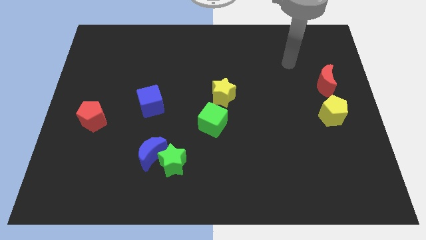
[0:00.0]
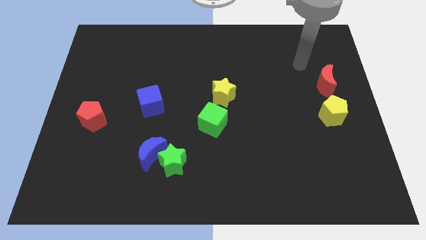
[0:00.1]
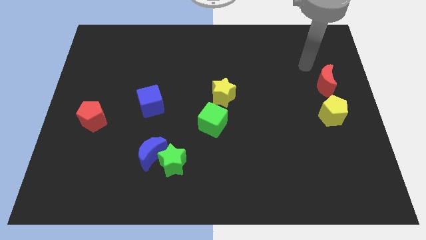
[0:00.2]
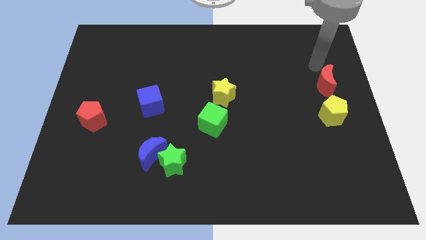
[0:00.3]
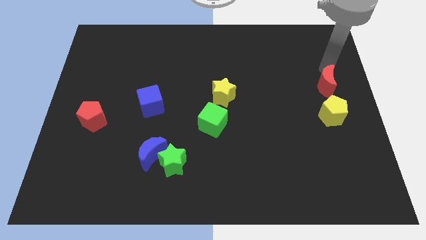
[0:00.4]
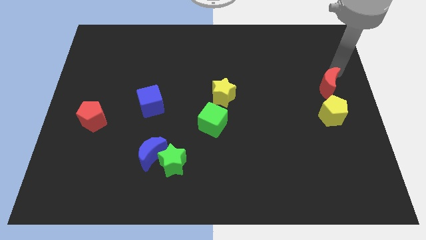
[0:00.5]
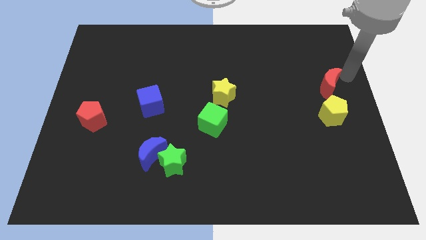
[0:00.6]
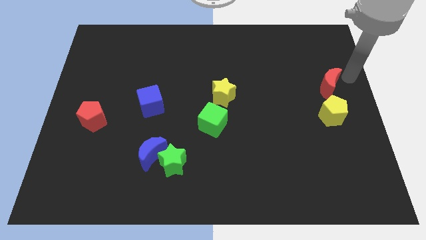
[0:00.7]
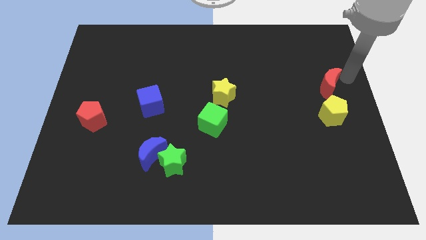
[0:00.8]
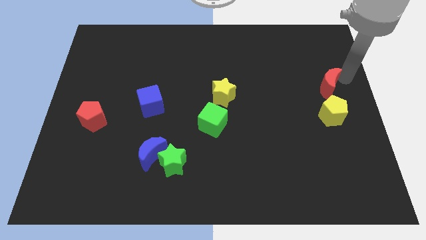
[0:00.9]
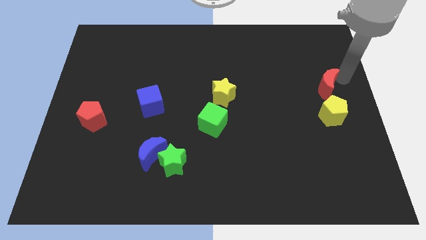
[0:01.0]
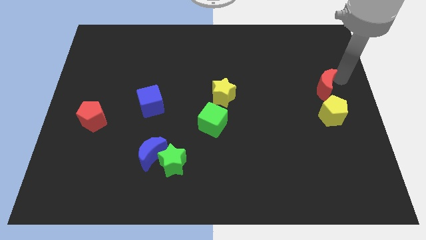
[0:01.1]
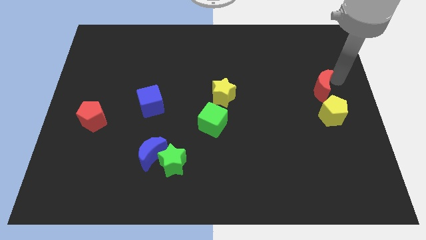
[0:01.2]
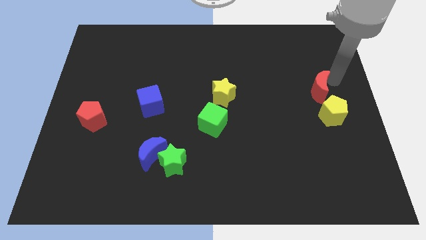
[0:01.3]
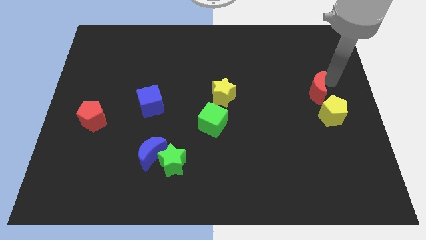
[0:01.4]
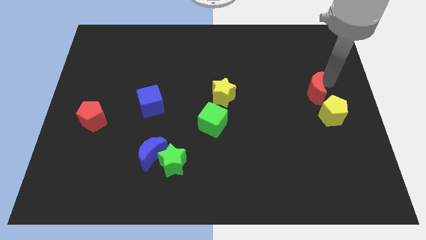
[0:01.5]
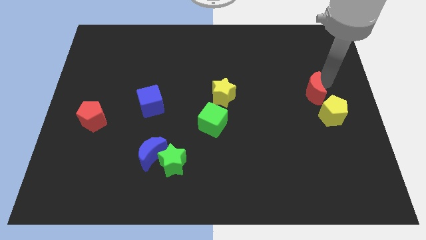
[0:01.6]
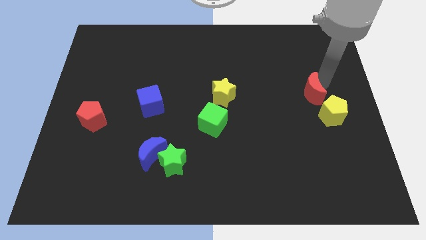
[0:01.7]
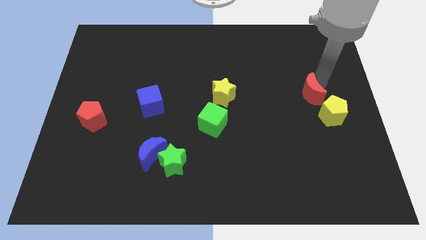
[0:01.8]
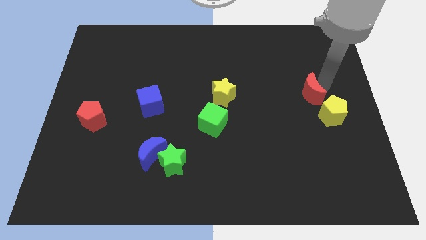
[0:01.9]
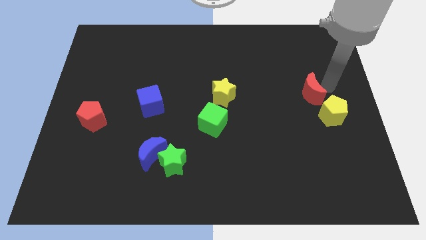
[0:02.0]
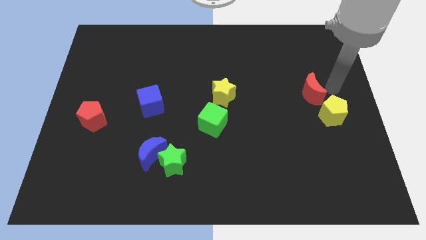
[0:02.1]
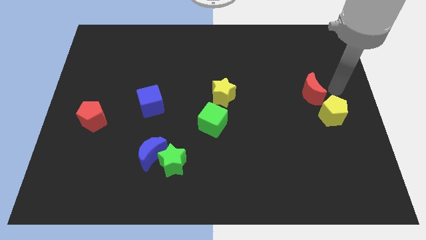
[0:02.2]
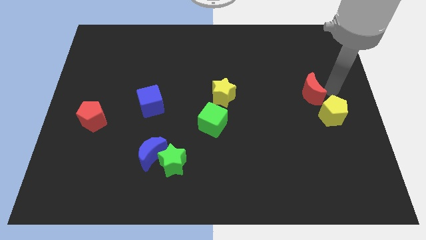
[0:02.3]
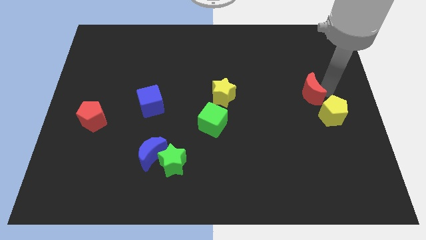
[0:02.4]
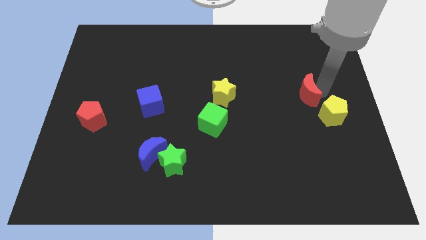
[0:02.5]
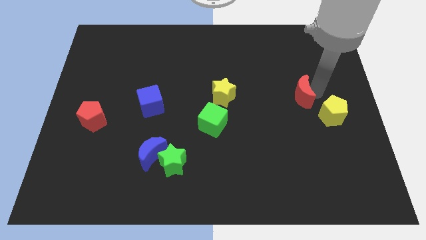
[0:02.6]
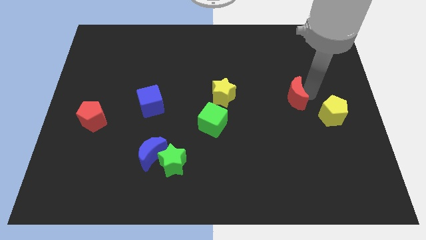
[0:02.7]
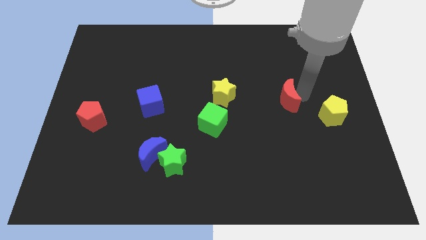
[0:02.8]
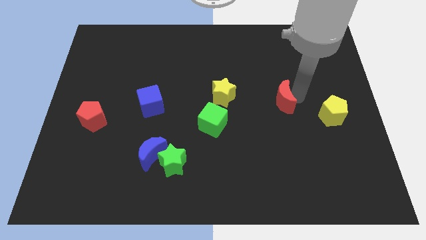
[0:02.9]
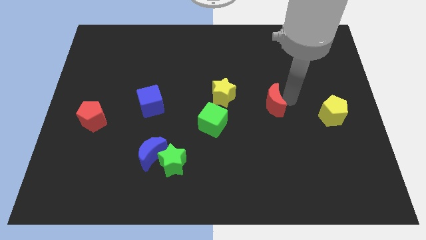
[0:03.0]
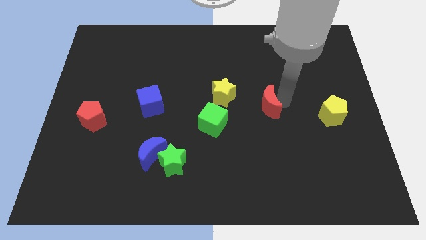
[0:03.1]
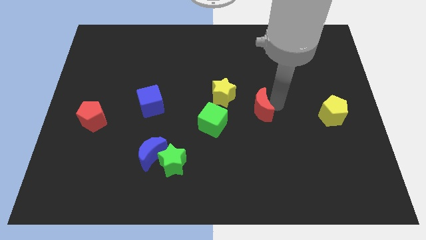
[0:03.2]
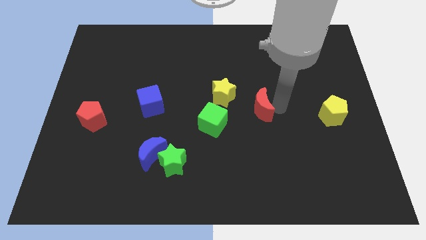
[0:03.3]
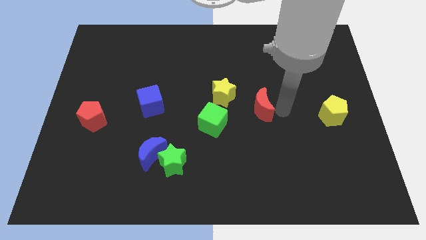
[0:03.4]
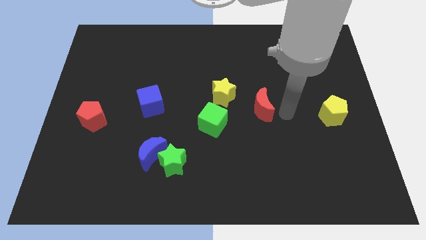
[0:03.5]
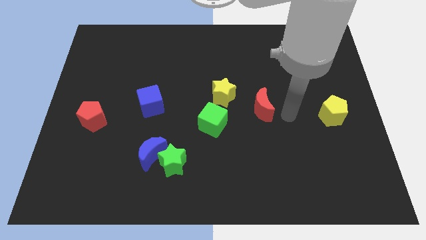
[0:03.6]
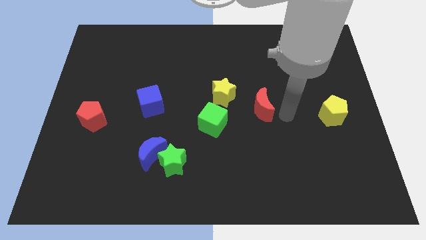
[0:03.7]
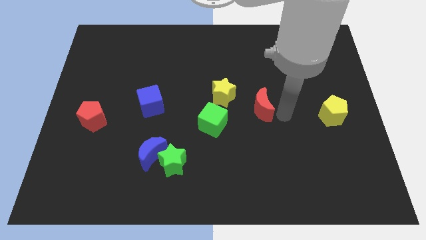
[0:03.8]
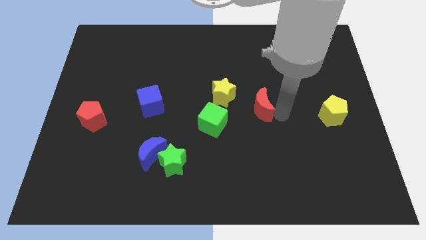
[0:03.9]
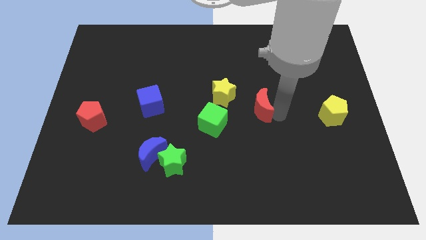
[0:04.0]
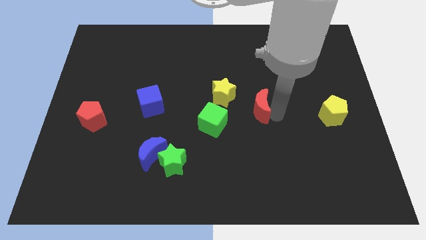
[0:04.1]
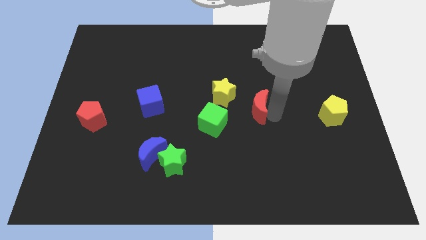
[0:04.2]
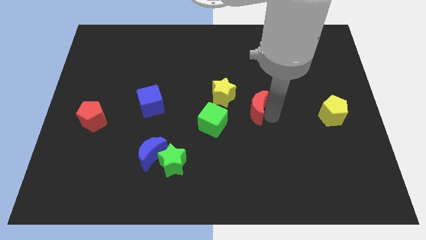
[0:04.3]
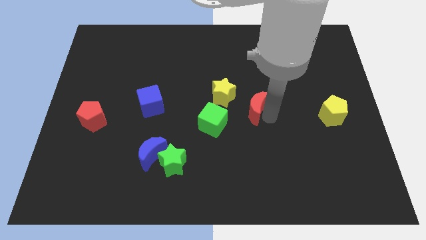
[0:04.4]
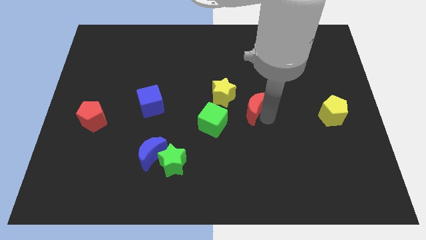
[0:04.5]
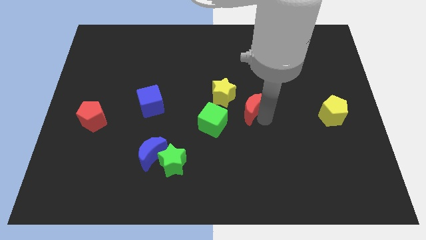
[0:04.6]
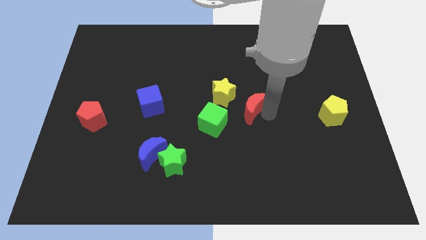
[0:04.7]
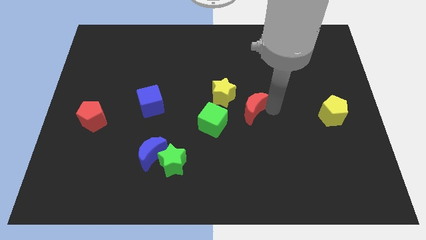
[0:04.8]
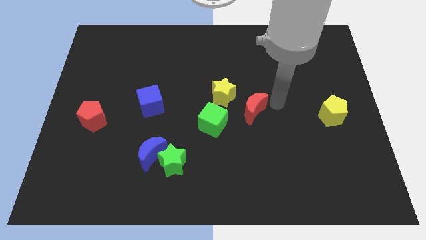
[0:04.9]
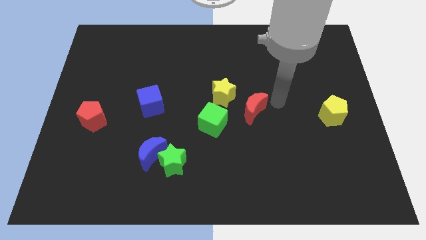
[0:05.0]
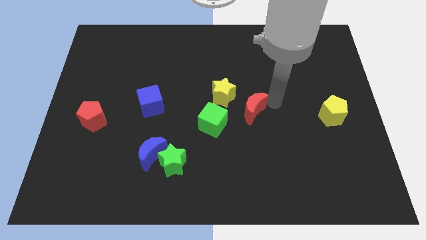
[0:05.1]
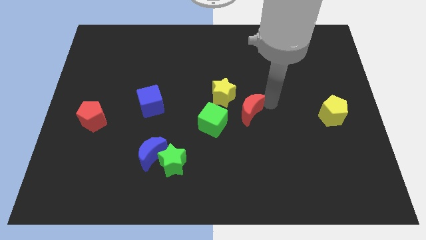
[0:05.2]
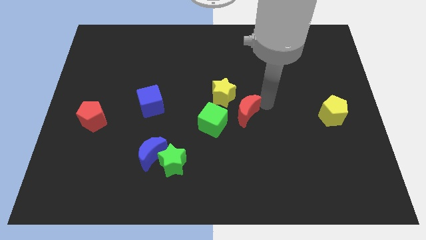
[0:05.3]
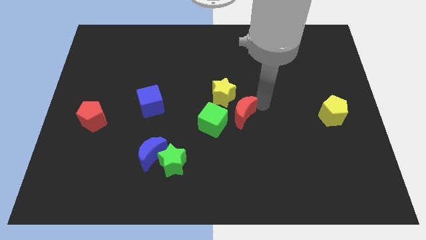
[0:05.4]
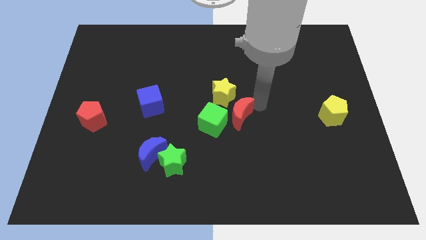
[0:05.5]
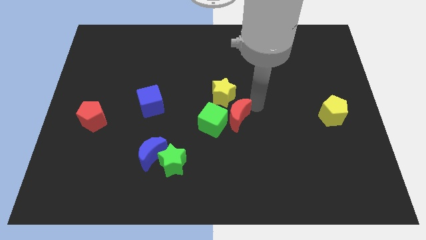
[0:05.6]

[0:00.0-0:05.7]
put the red moon towards the green cube
